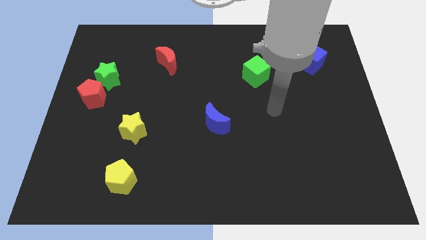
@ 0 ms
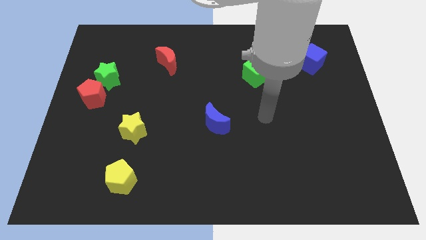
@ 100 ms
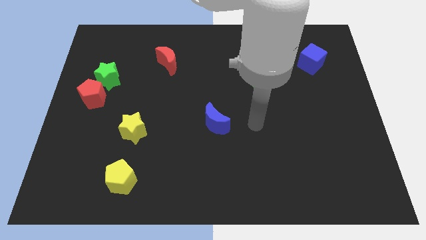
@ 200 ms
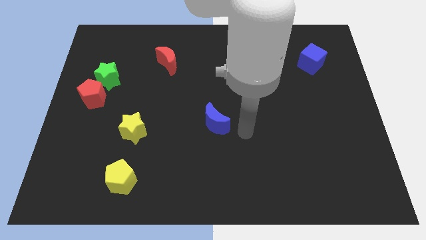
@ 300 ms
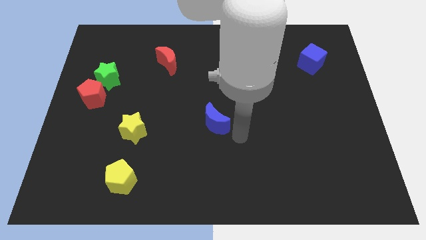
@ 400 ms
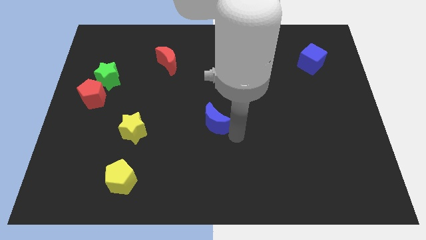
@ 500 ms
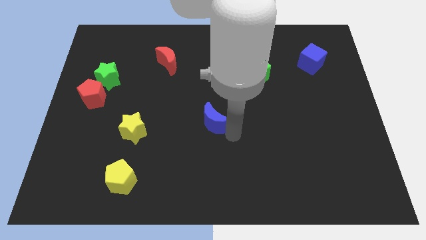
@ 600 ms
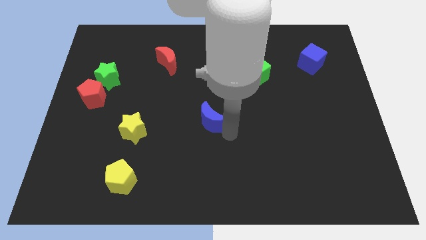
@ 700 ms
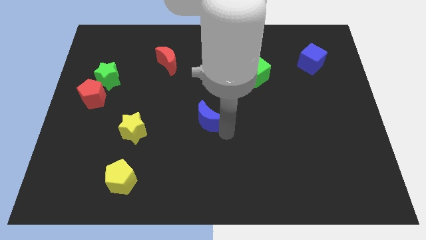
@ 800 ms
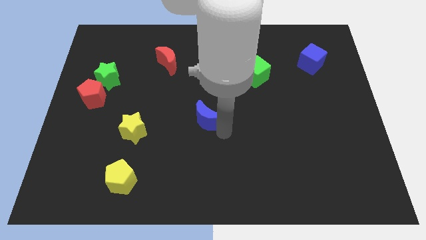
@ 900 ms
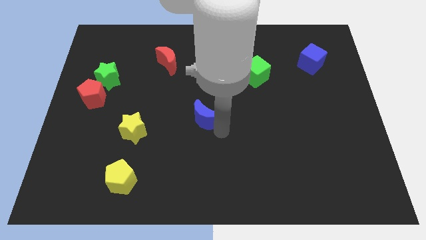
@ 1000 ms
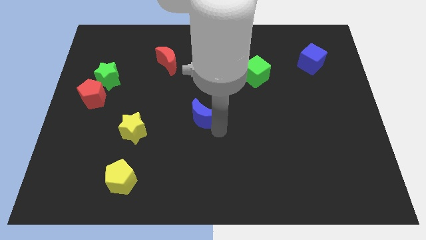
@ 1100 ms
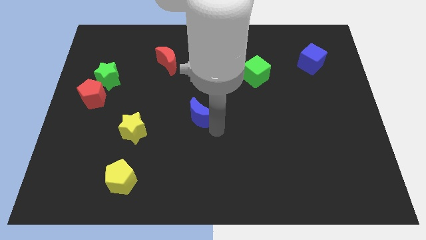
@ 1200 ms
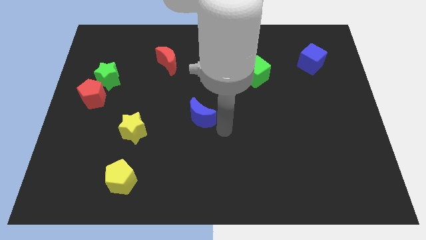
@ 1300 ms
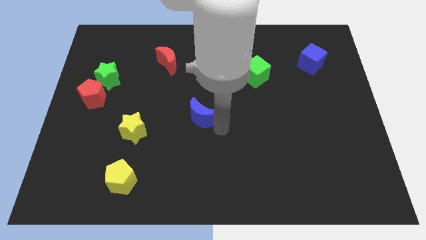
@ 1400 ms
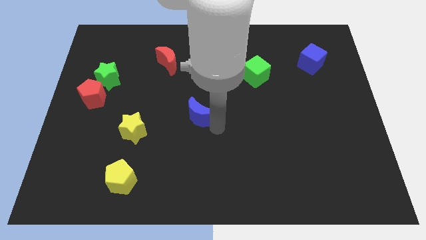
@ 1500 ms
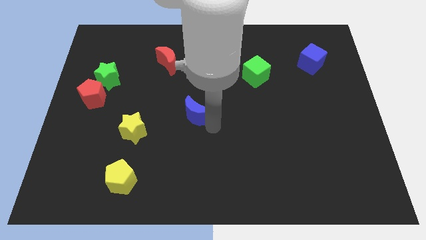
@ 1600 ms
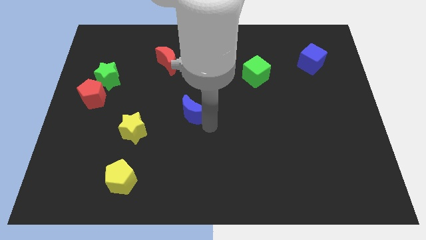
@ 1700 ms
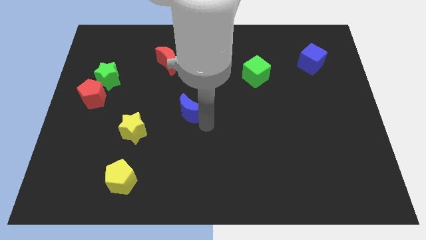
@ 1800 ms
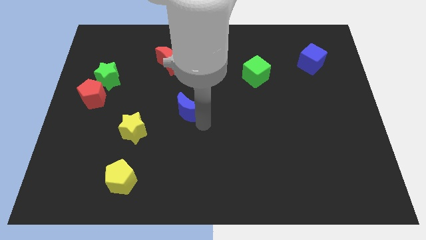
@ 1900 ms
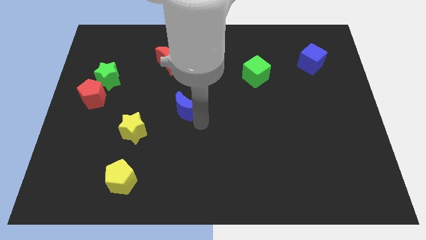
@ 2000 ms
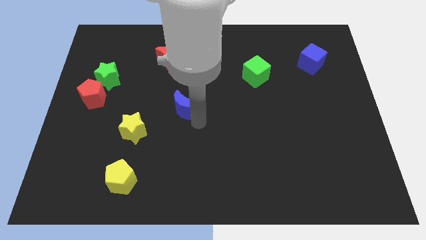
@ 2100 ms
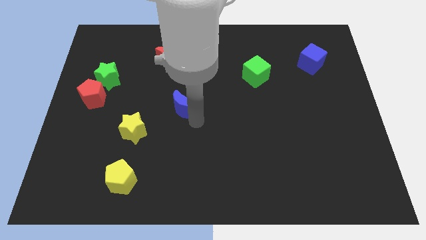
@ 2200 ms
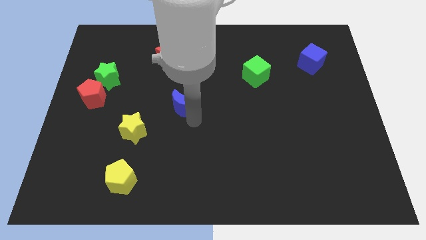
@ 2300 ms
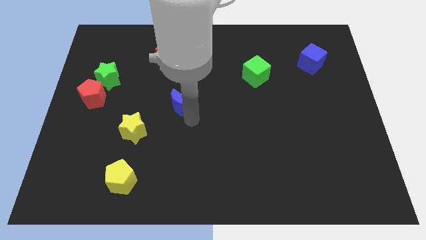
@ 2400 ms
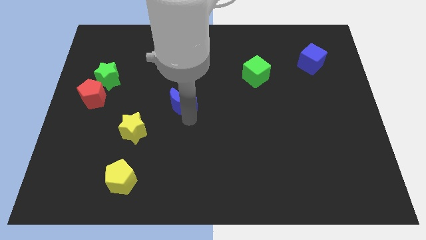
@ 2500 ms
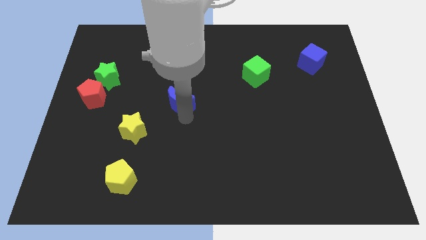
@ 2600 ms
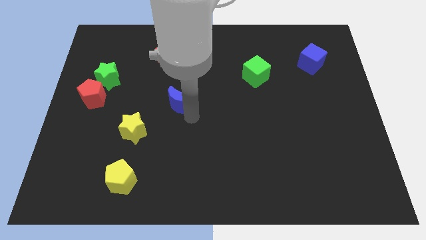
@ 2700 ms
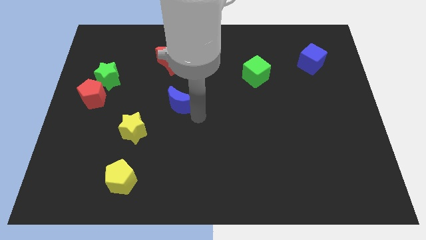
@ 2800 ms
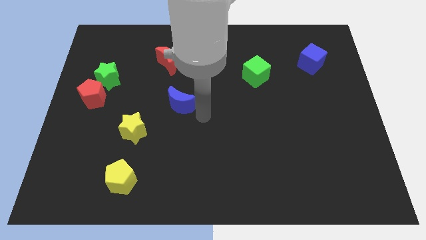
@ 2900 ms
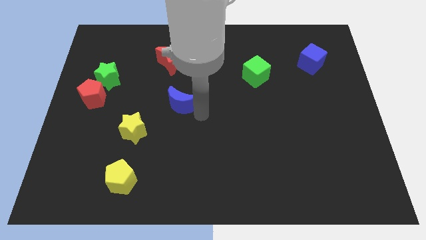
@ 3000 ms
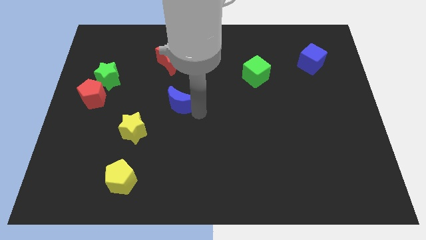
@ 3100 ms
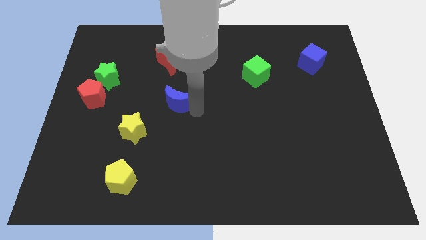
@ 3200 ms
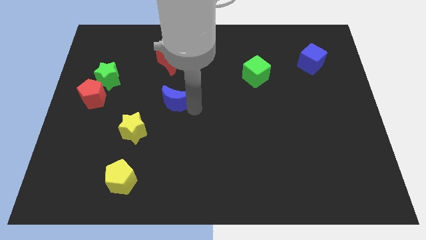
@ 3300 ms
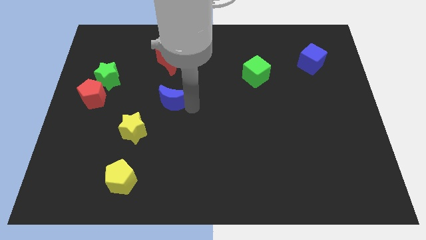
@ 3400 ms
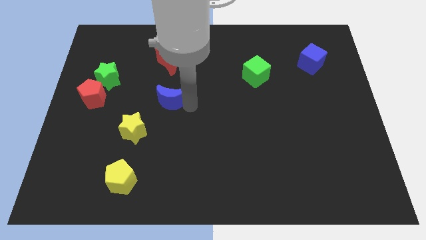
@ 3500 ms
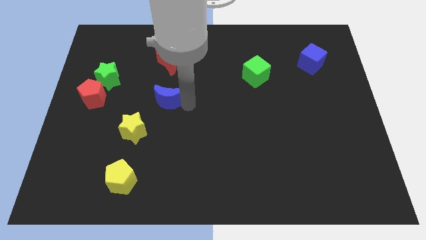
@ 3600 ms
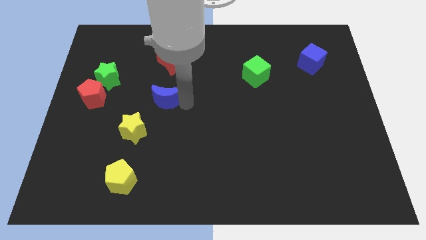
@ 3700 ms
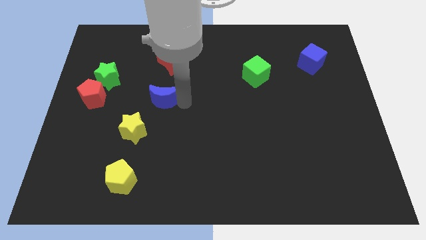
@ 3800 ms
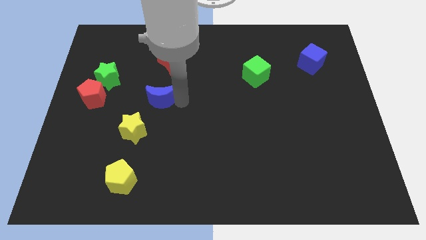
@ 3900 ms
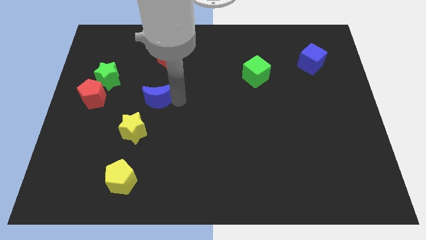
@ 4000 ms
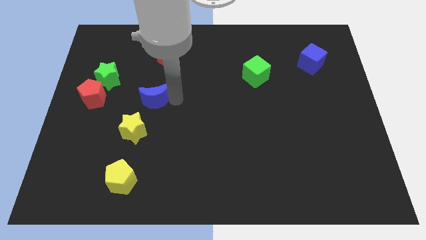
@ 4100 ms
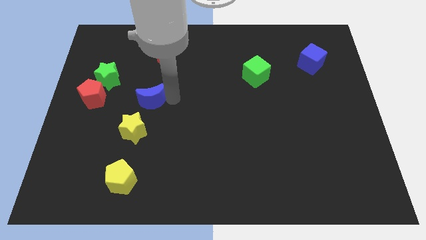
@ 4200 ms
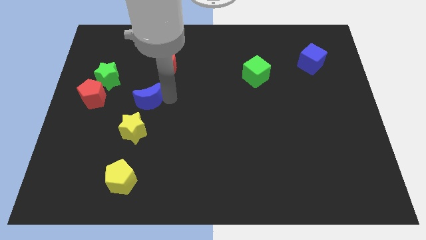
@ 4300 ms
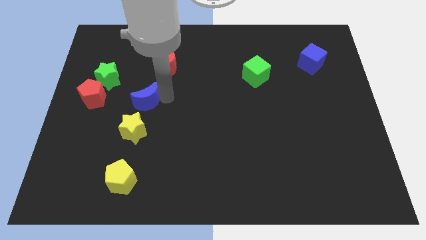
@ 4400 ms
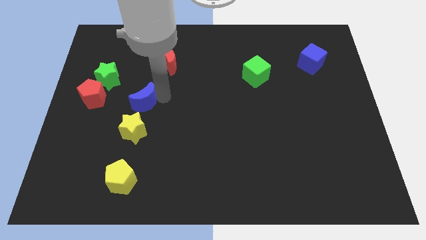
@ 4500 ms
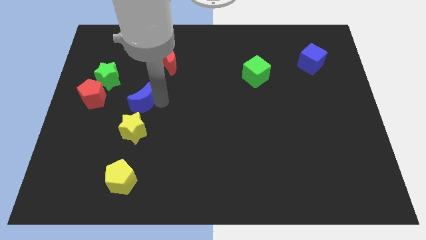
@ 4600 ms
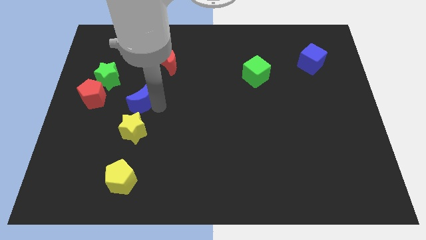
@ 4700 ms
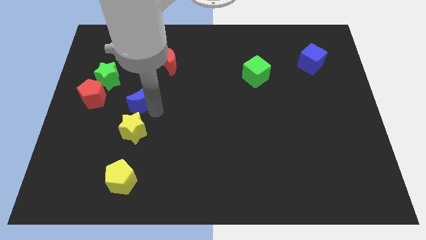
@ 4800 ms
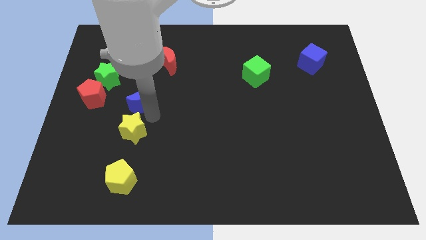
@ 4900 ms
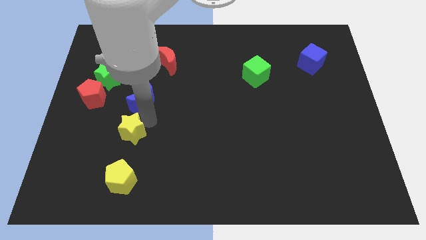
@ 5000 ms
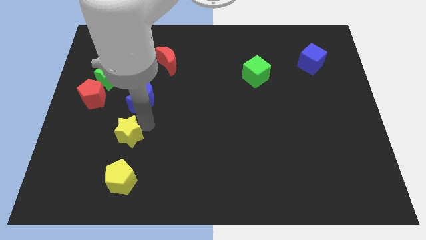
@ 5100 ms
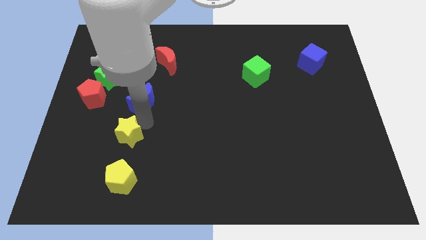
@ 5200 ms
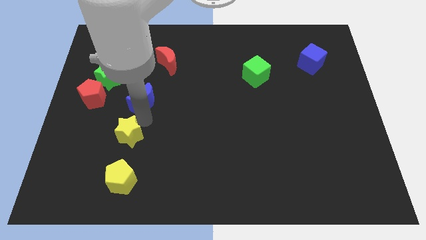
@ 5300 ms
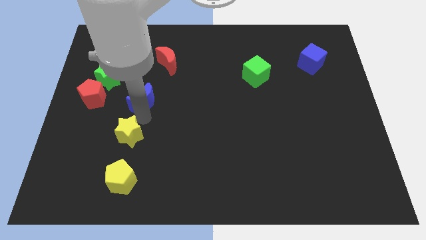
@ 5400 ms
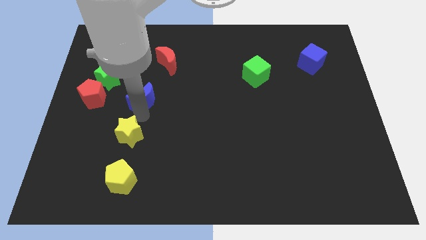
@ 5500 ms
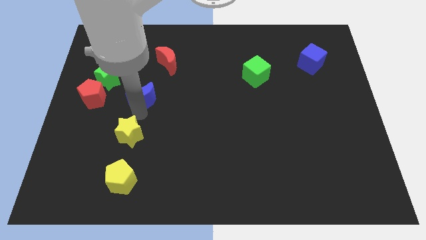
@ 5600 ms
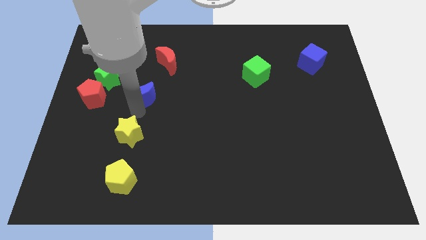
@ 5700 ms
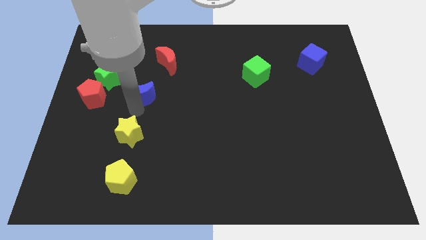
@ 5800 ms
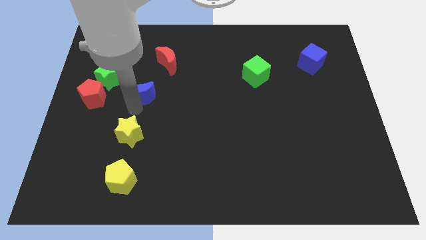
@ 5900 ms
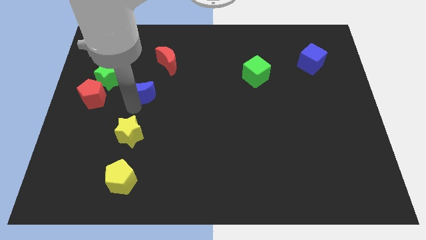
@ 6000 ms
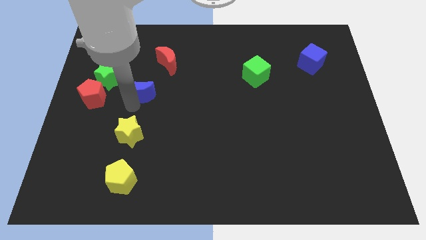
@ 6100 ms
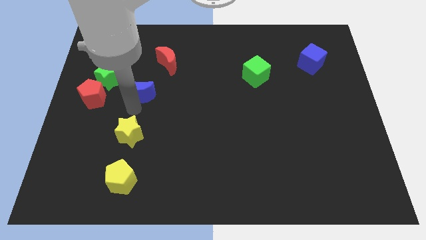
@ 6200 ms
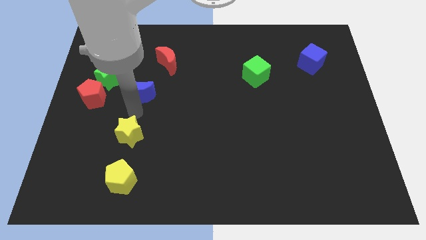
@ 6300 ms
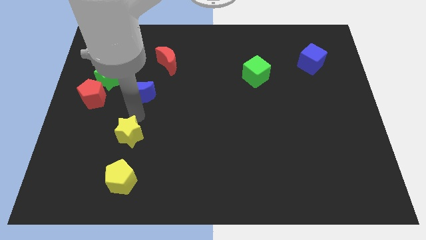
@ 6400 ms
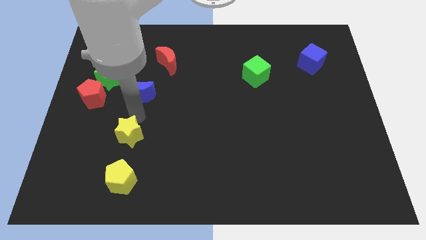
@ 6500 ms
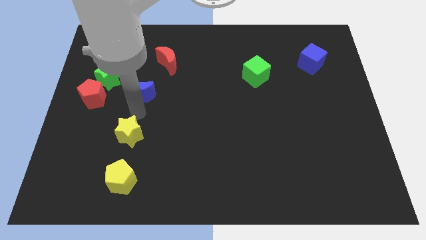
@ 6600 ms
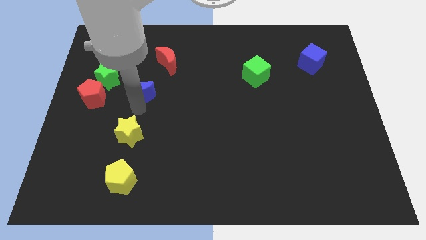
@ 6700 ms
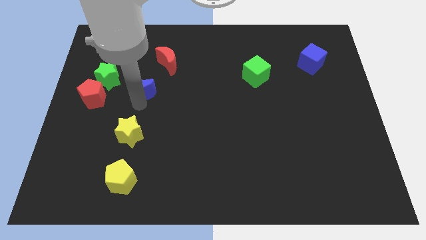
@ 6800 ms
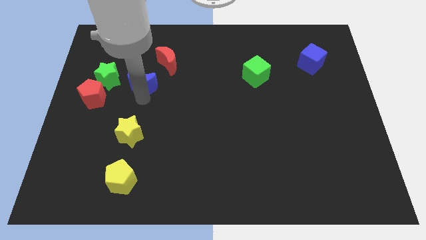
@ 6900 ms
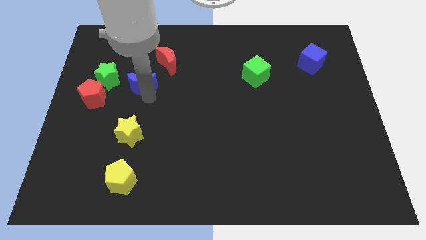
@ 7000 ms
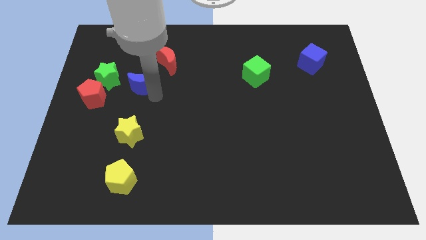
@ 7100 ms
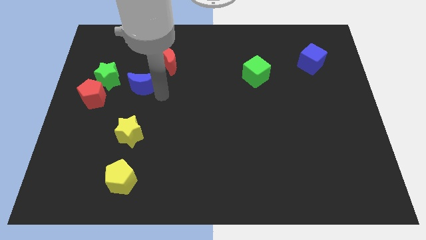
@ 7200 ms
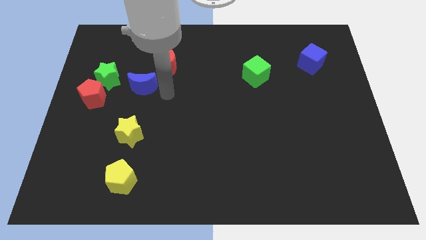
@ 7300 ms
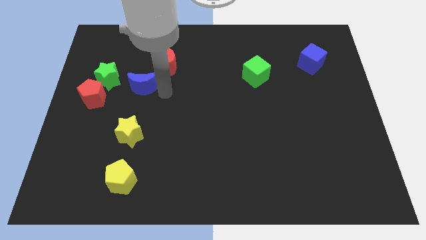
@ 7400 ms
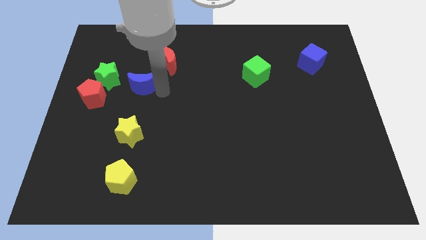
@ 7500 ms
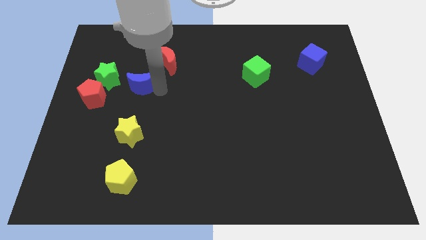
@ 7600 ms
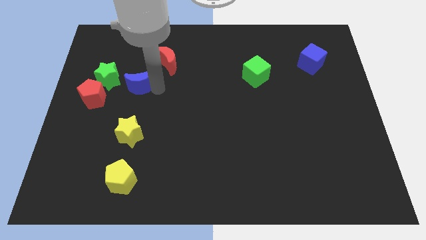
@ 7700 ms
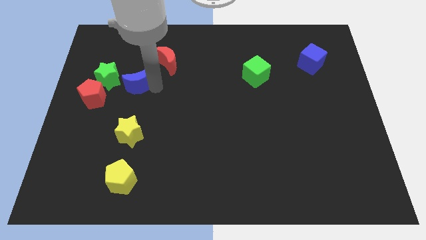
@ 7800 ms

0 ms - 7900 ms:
put the blue moon to the top right of the red pentagon
